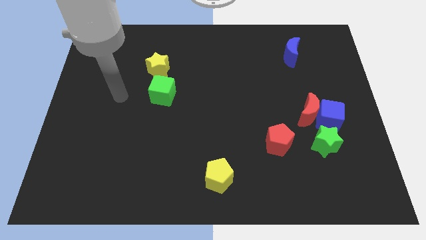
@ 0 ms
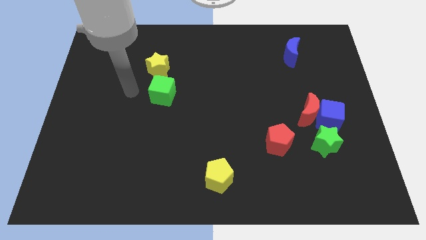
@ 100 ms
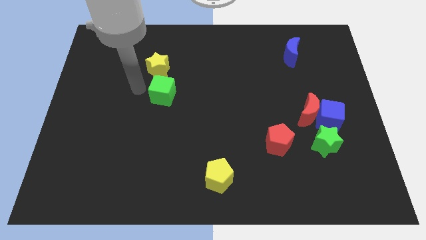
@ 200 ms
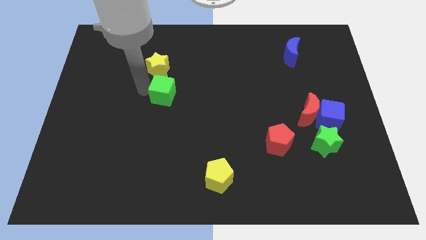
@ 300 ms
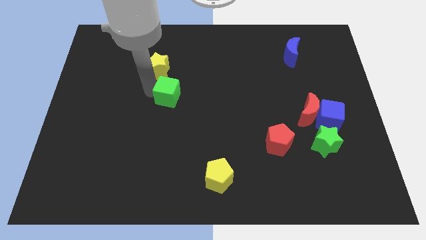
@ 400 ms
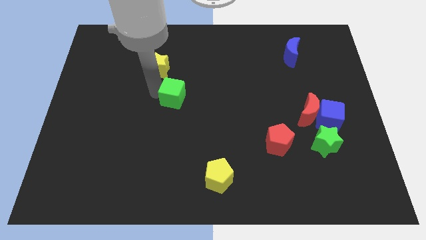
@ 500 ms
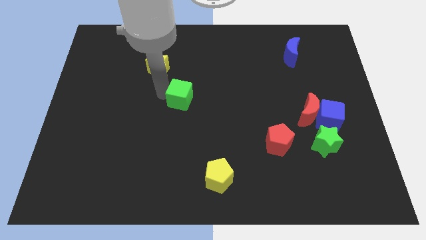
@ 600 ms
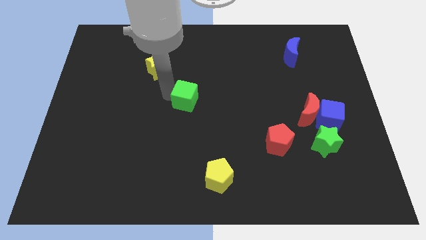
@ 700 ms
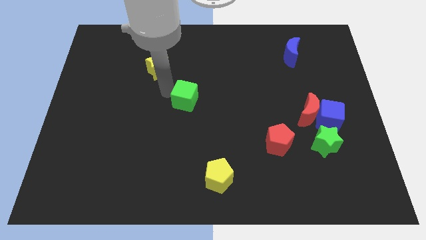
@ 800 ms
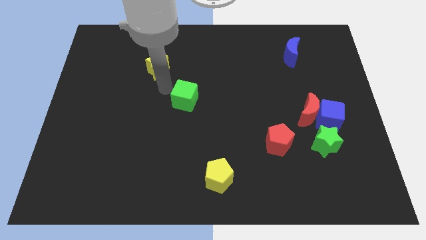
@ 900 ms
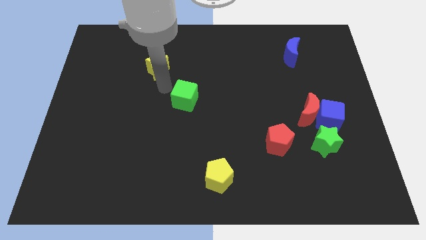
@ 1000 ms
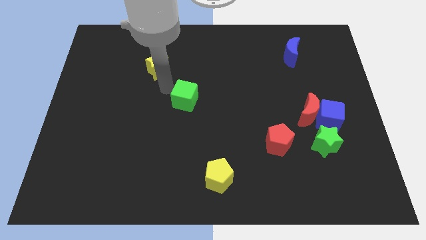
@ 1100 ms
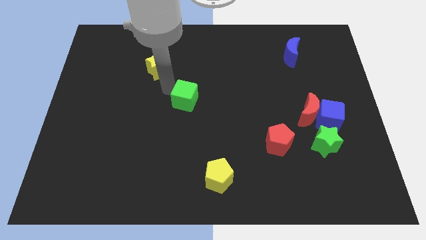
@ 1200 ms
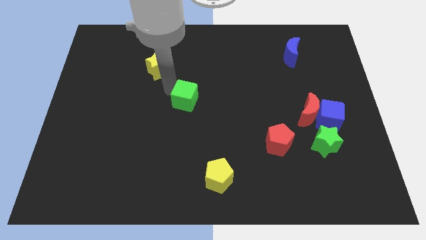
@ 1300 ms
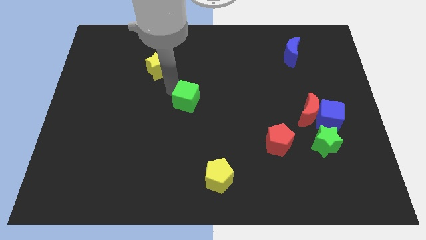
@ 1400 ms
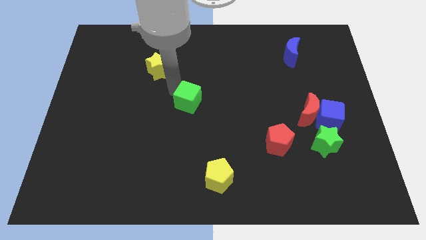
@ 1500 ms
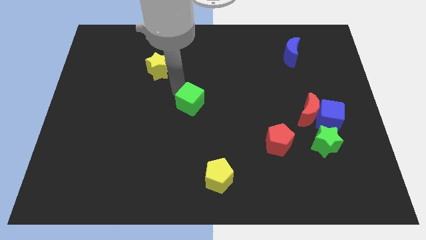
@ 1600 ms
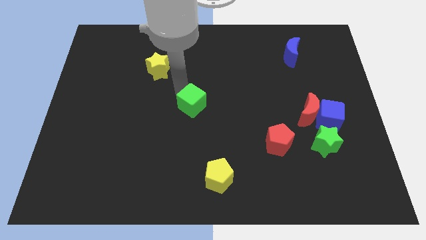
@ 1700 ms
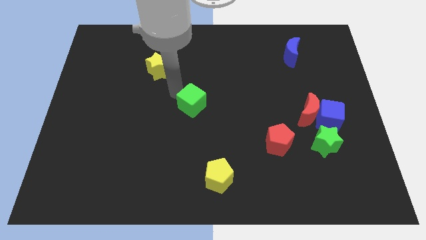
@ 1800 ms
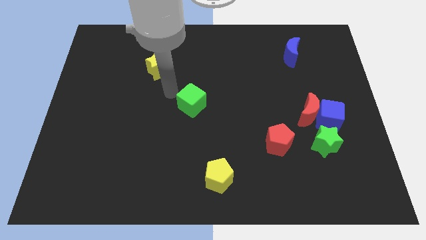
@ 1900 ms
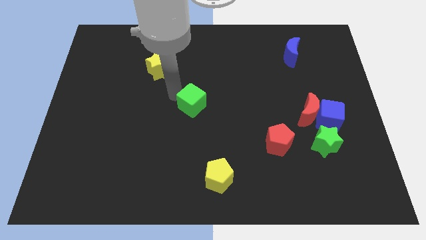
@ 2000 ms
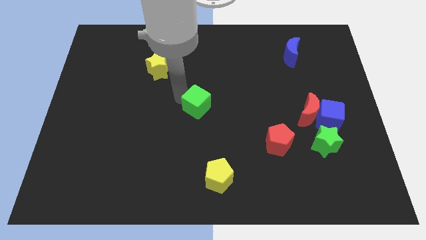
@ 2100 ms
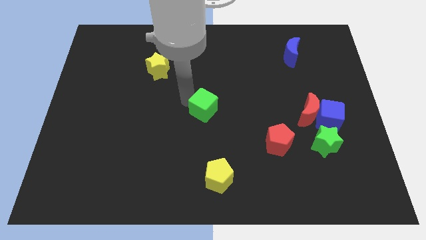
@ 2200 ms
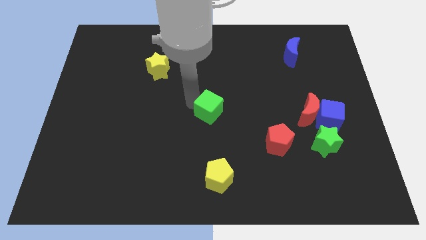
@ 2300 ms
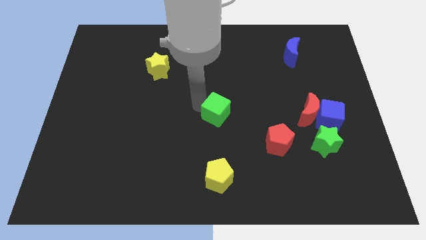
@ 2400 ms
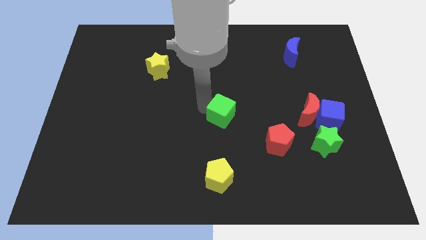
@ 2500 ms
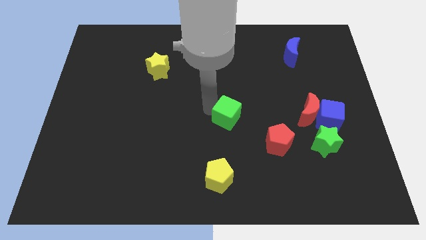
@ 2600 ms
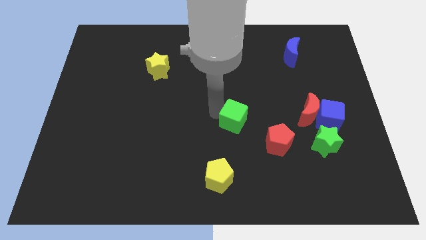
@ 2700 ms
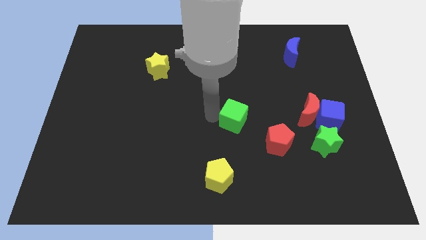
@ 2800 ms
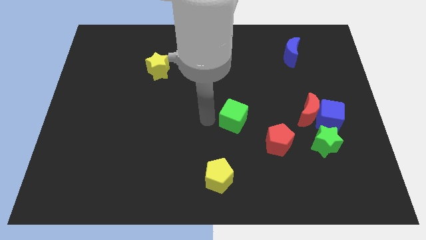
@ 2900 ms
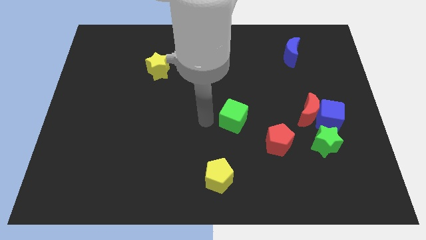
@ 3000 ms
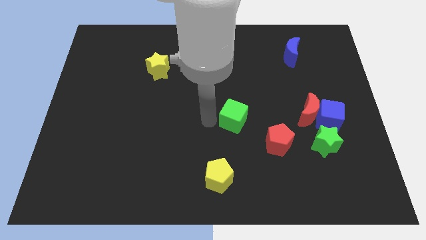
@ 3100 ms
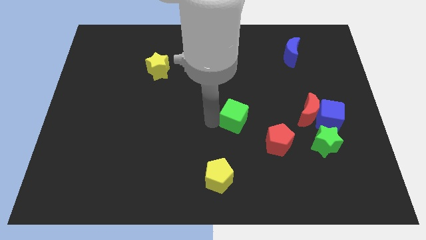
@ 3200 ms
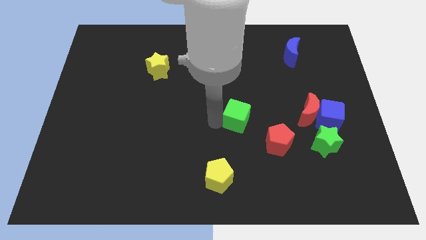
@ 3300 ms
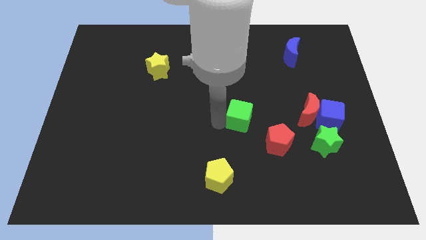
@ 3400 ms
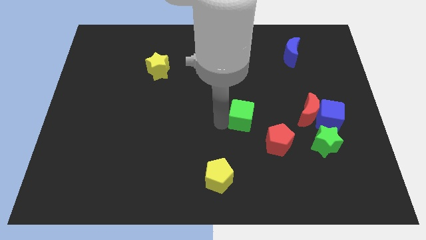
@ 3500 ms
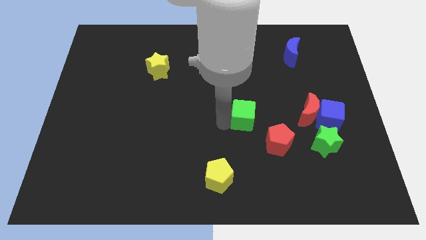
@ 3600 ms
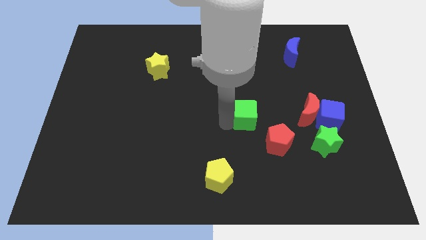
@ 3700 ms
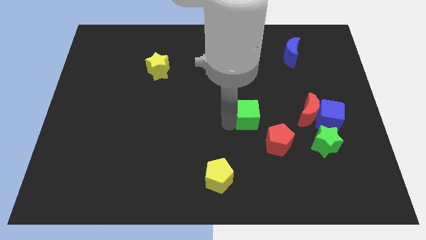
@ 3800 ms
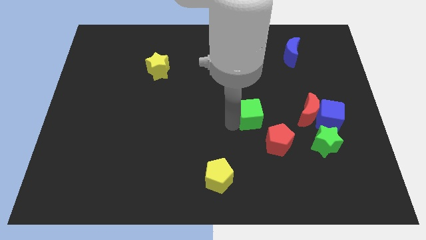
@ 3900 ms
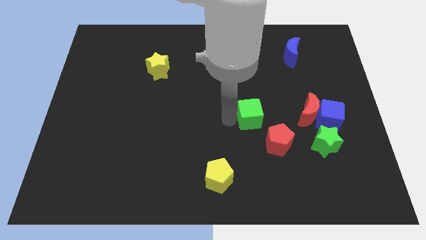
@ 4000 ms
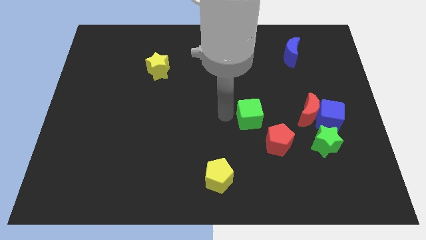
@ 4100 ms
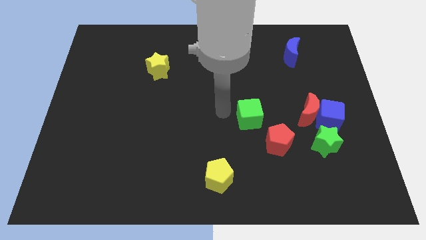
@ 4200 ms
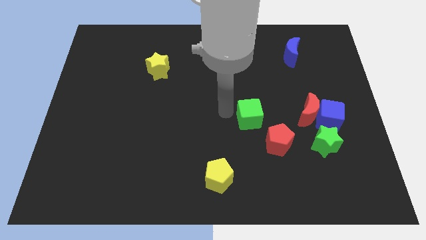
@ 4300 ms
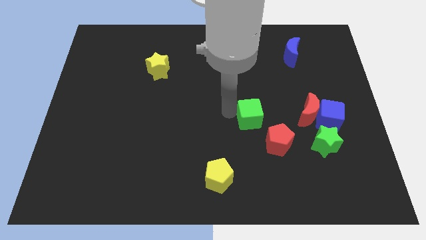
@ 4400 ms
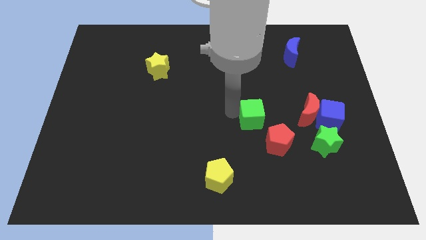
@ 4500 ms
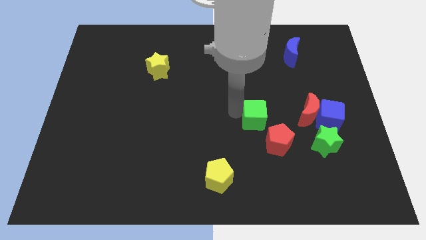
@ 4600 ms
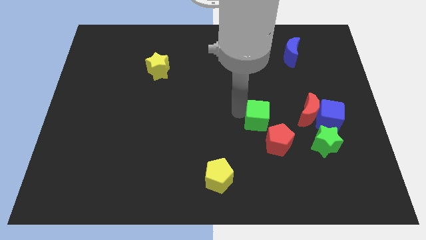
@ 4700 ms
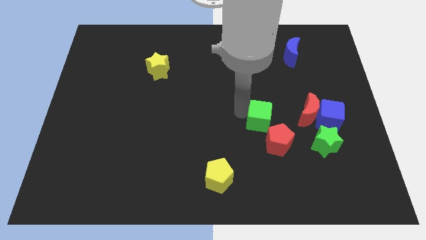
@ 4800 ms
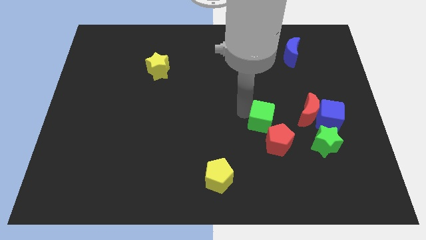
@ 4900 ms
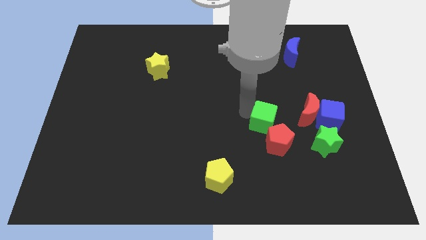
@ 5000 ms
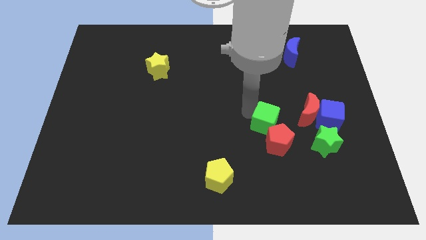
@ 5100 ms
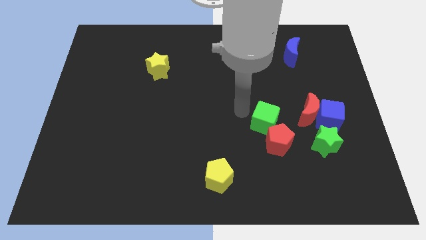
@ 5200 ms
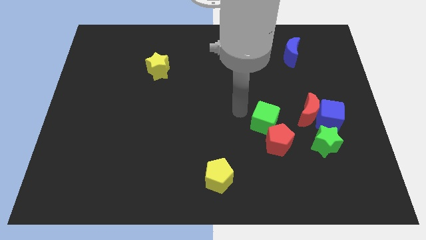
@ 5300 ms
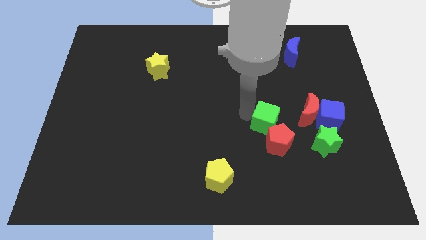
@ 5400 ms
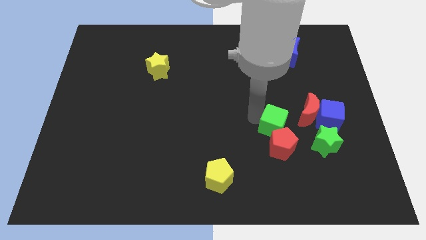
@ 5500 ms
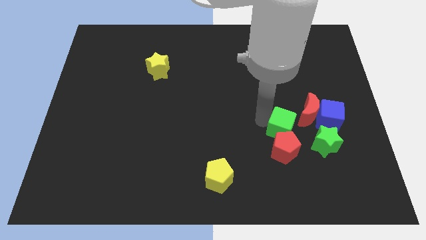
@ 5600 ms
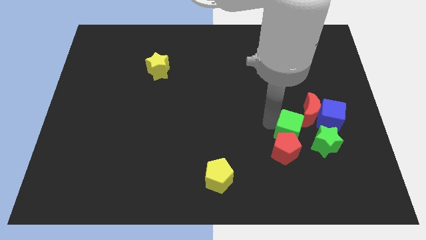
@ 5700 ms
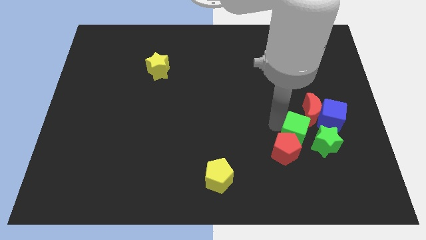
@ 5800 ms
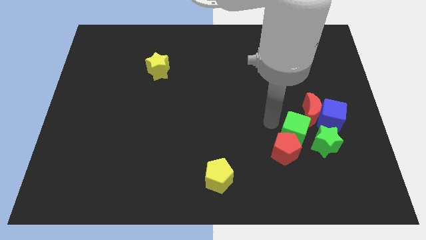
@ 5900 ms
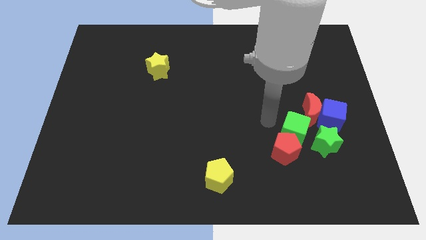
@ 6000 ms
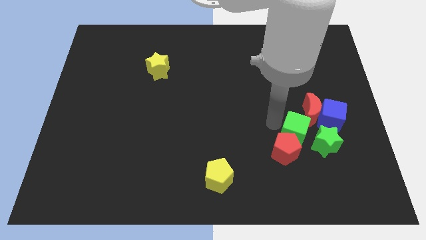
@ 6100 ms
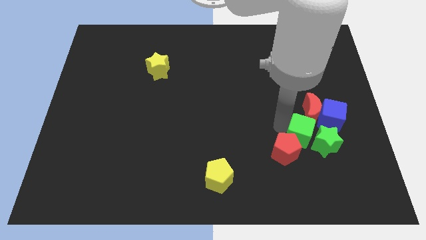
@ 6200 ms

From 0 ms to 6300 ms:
move the green cube next to the green star

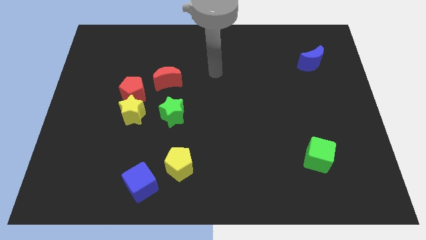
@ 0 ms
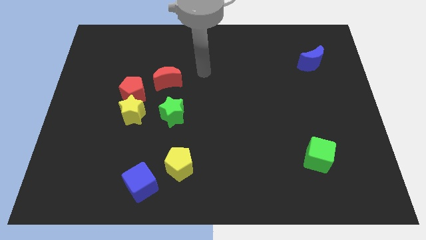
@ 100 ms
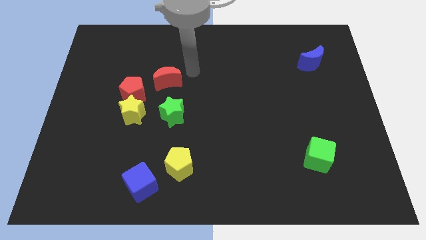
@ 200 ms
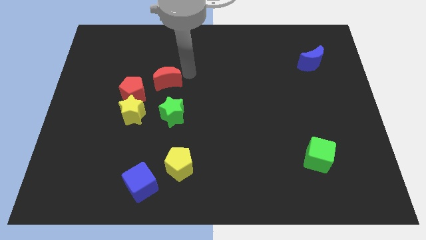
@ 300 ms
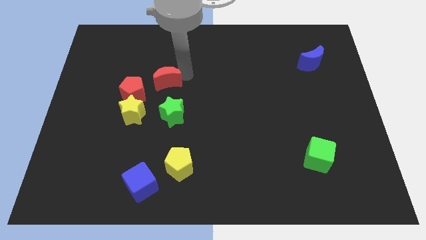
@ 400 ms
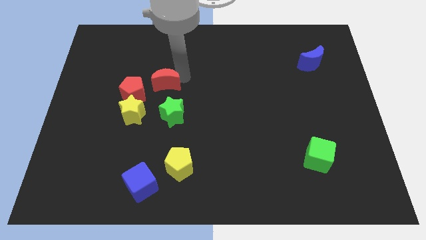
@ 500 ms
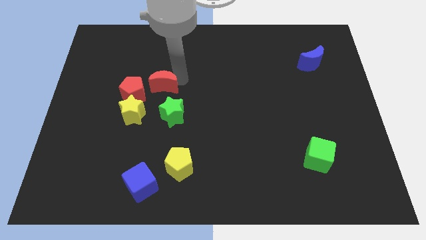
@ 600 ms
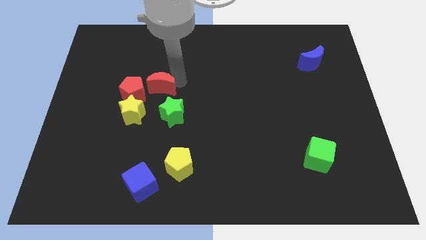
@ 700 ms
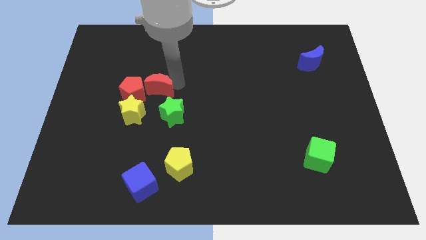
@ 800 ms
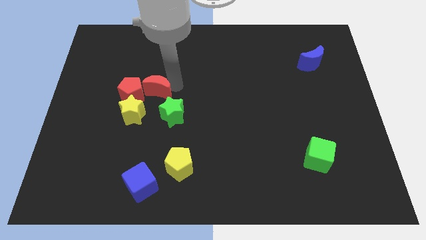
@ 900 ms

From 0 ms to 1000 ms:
push the red moon next to the red pentagon
